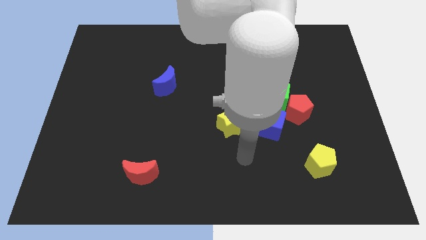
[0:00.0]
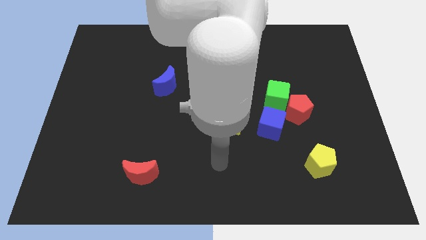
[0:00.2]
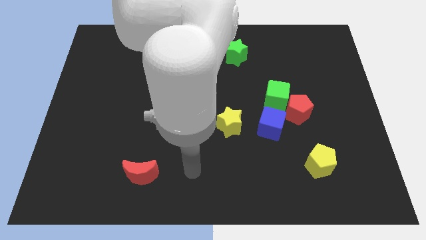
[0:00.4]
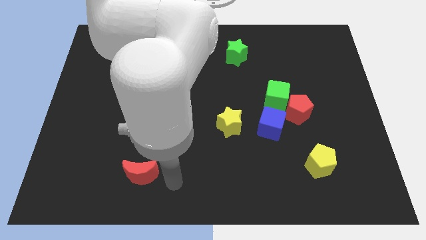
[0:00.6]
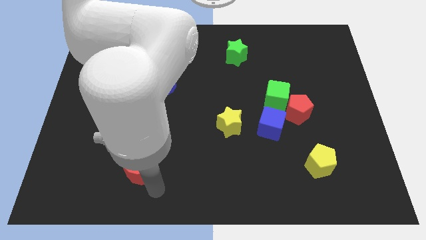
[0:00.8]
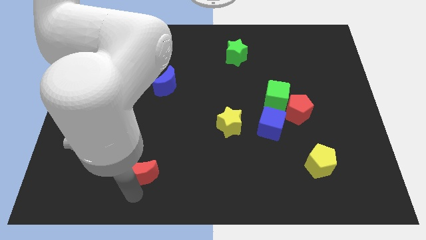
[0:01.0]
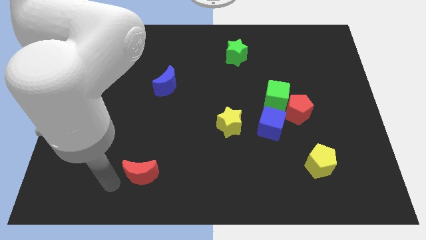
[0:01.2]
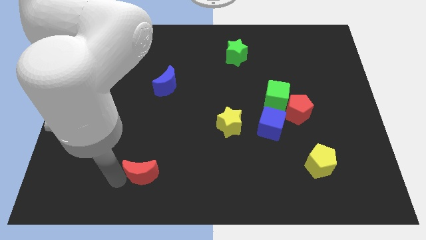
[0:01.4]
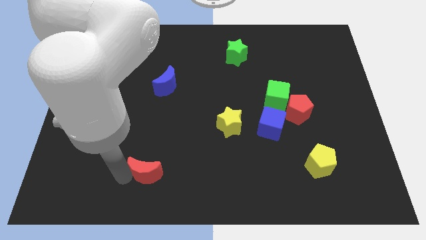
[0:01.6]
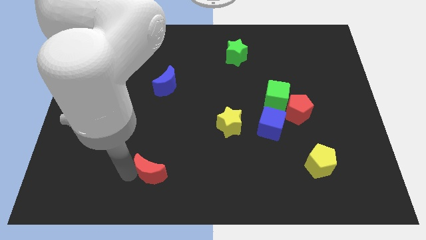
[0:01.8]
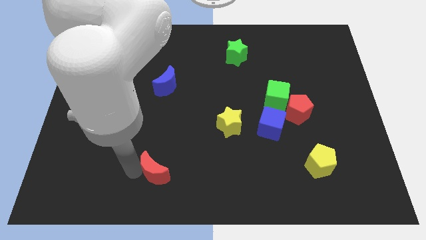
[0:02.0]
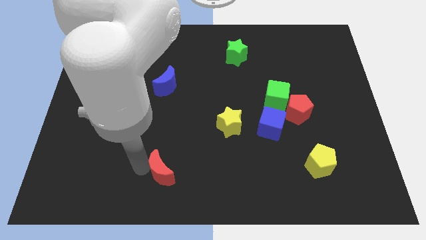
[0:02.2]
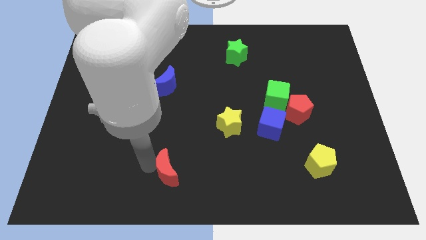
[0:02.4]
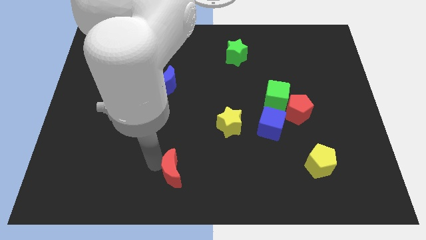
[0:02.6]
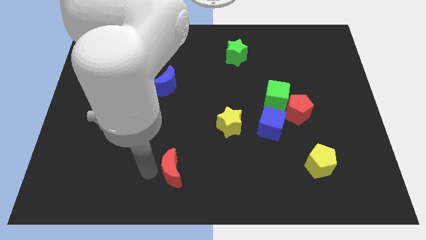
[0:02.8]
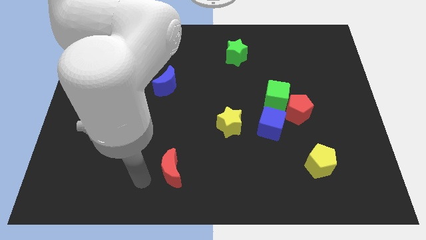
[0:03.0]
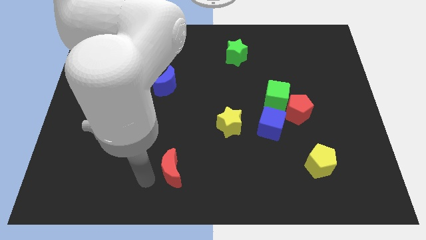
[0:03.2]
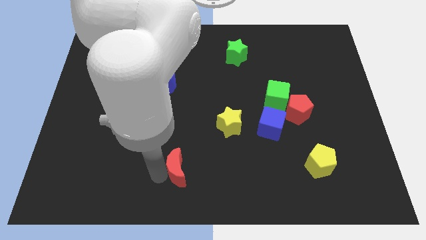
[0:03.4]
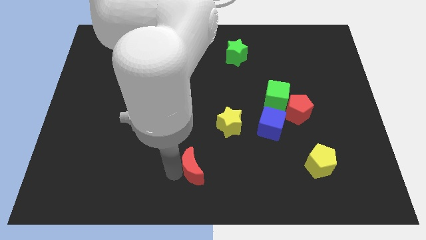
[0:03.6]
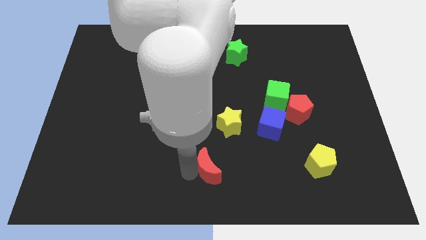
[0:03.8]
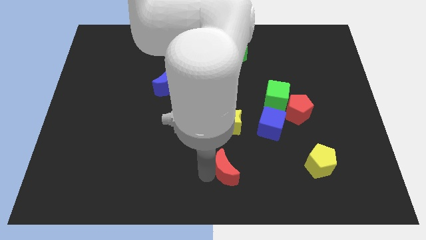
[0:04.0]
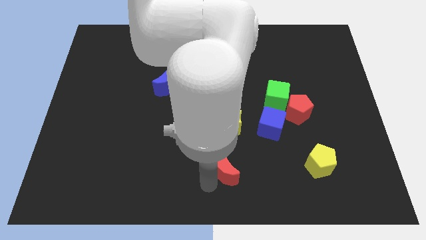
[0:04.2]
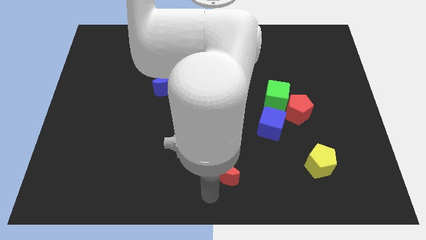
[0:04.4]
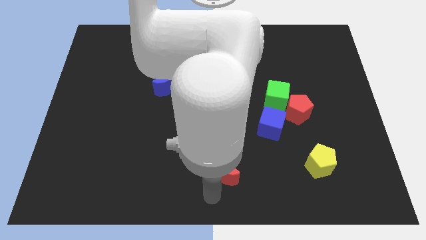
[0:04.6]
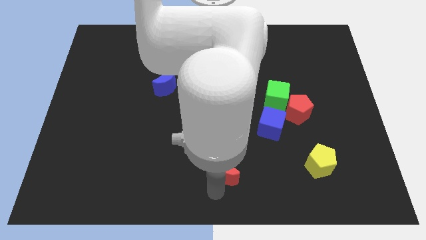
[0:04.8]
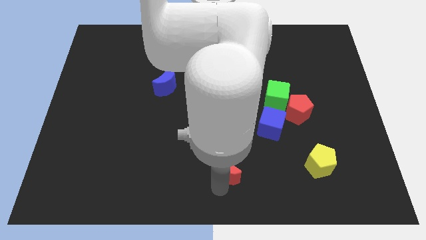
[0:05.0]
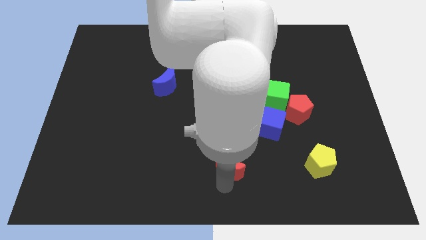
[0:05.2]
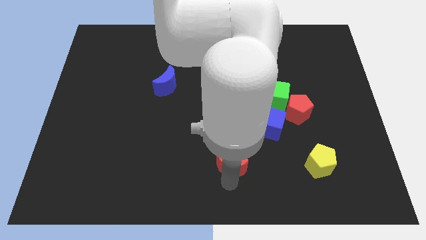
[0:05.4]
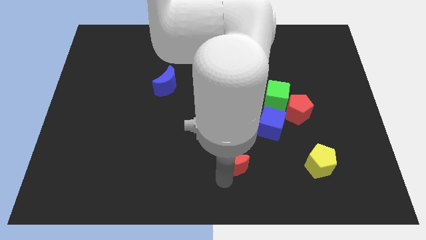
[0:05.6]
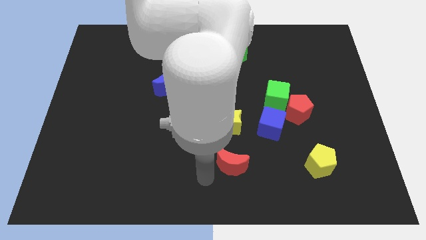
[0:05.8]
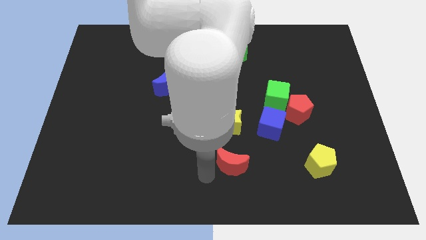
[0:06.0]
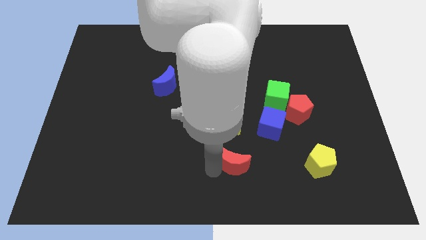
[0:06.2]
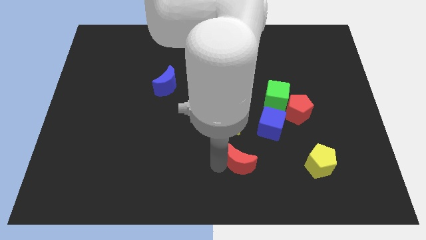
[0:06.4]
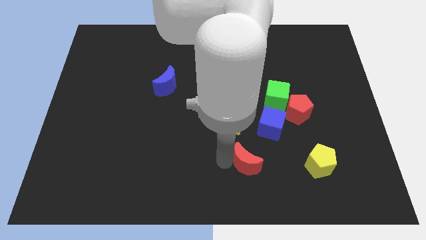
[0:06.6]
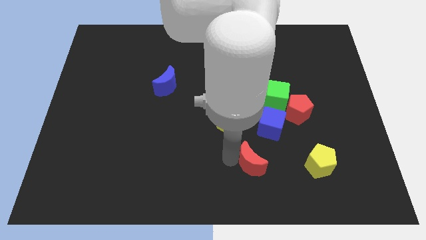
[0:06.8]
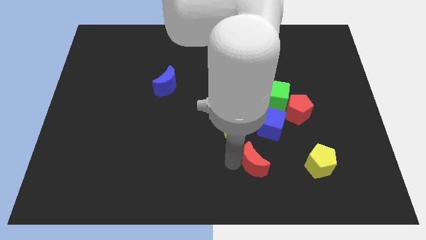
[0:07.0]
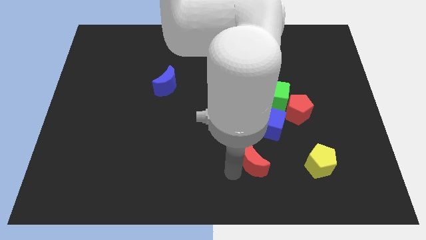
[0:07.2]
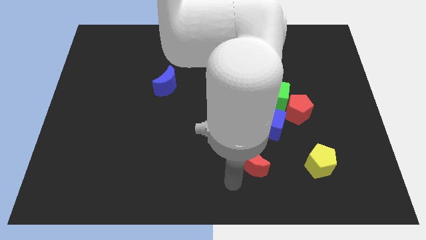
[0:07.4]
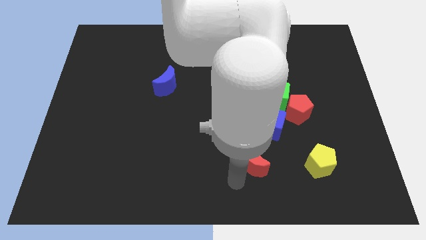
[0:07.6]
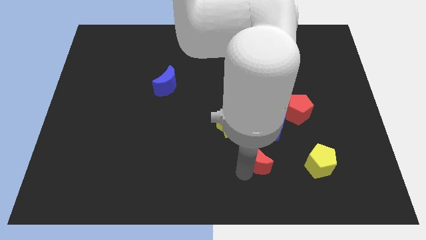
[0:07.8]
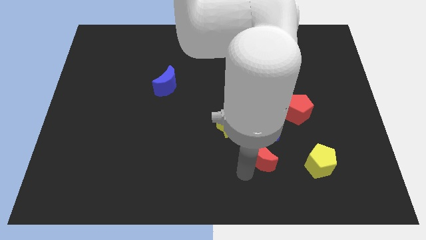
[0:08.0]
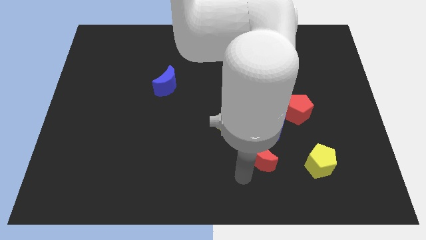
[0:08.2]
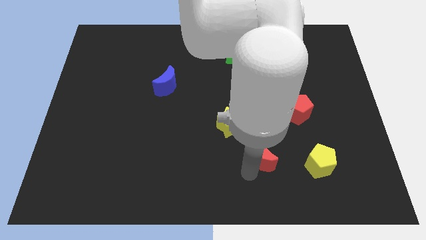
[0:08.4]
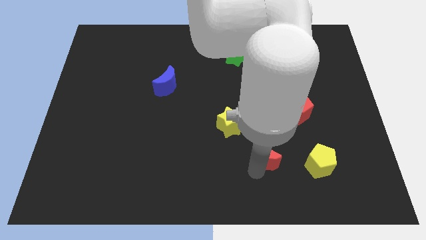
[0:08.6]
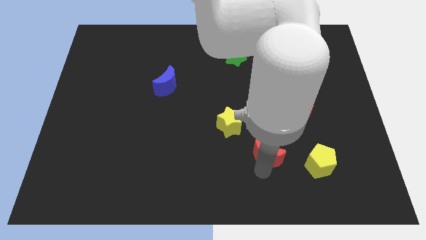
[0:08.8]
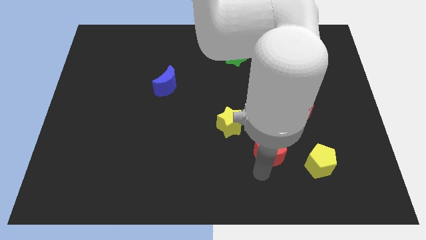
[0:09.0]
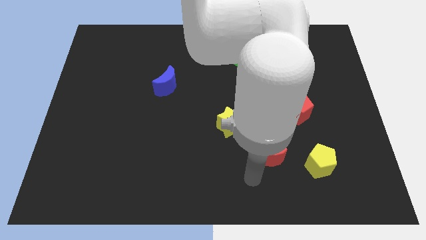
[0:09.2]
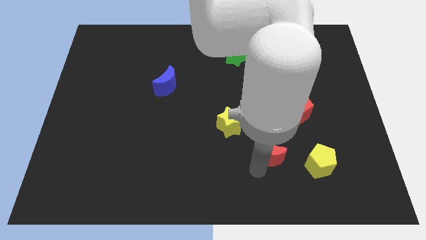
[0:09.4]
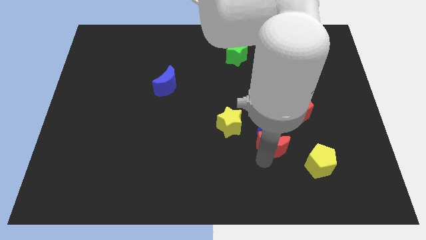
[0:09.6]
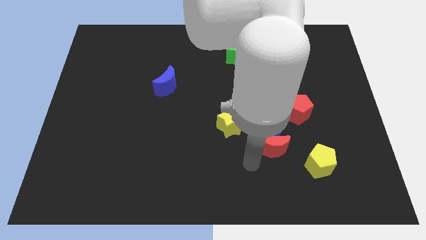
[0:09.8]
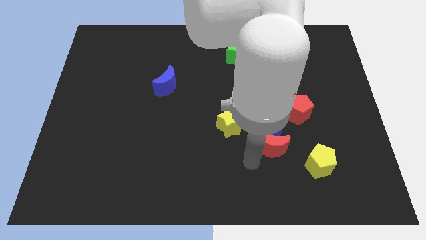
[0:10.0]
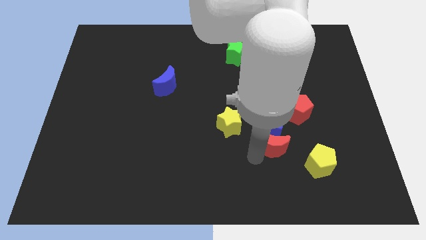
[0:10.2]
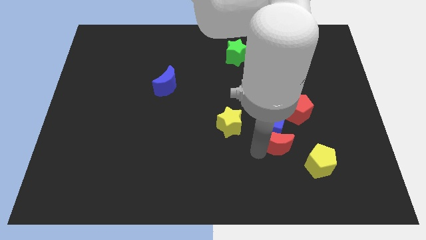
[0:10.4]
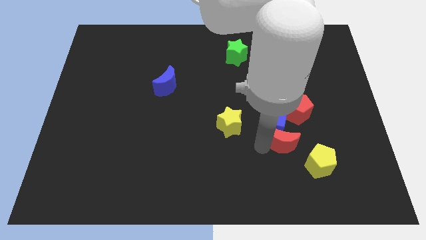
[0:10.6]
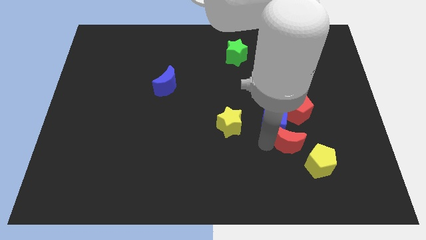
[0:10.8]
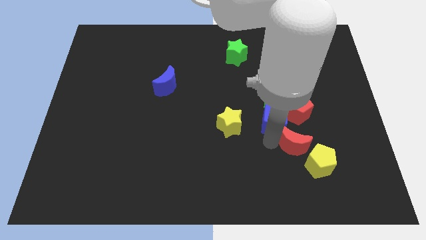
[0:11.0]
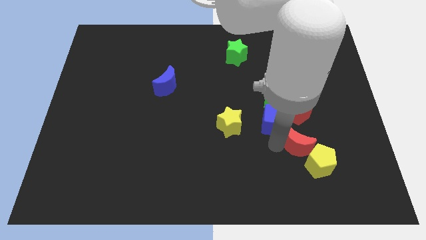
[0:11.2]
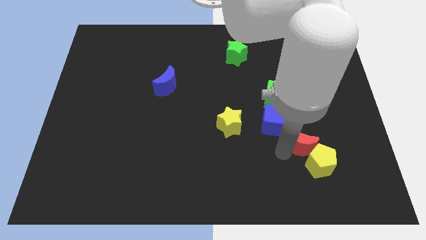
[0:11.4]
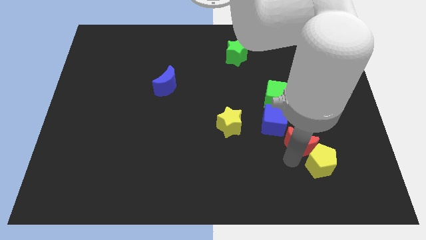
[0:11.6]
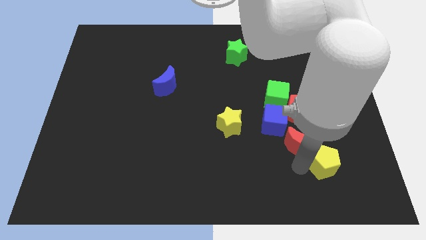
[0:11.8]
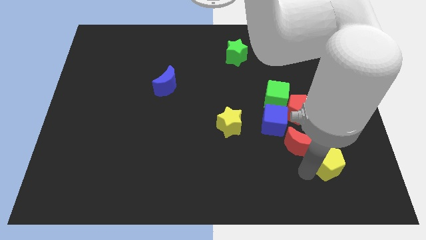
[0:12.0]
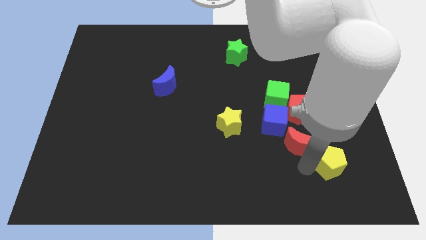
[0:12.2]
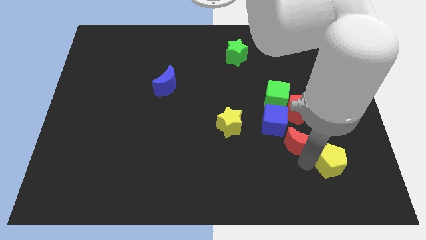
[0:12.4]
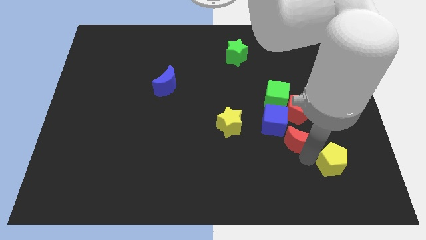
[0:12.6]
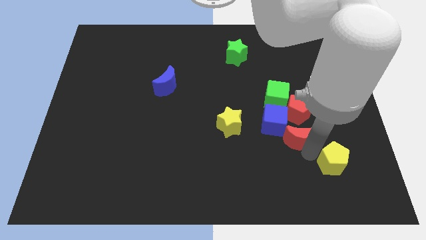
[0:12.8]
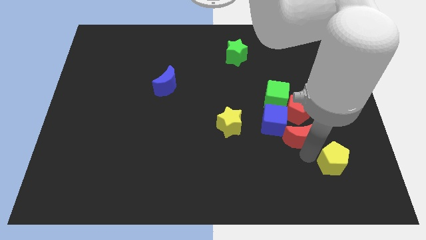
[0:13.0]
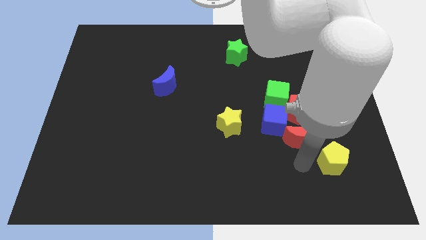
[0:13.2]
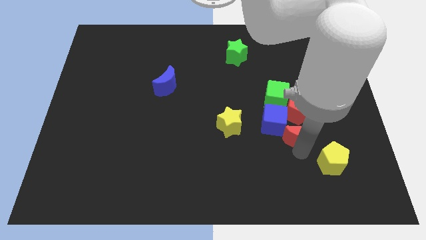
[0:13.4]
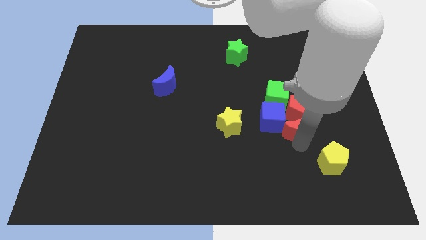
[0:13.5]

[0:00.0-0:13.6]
put the red moon towards the red pentagon
